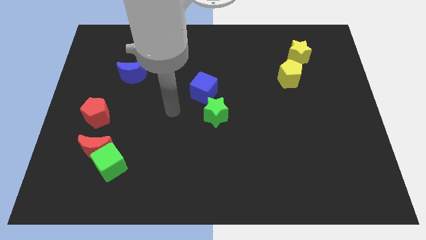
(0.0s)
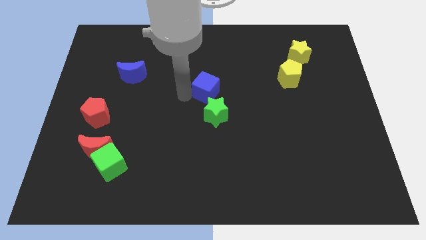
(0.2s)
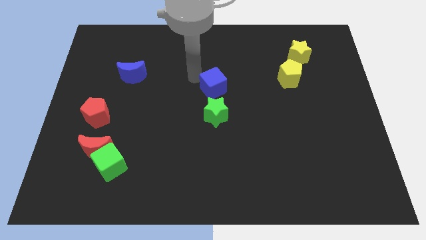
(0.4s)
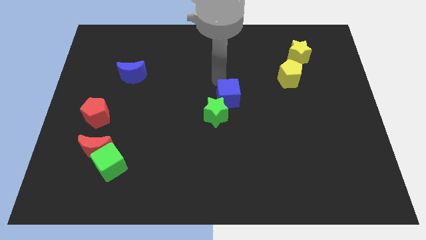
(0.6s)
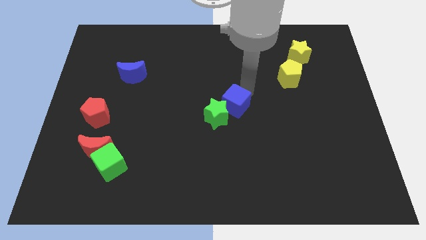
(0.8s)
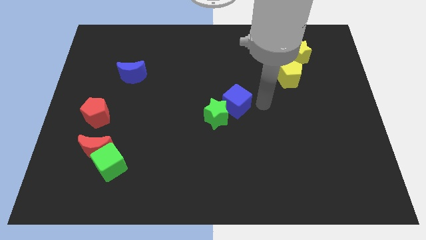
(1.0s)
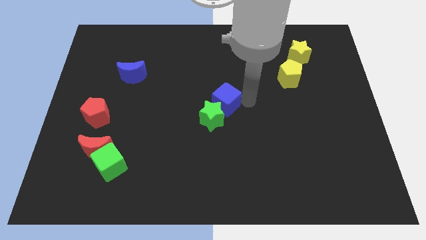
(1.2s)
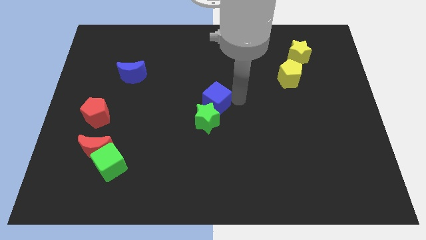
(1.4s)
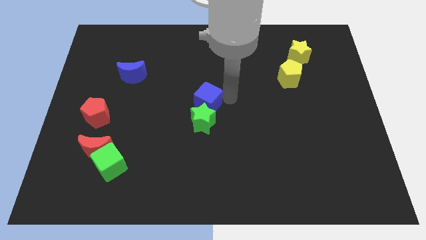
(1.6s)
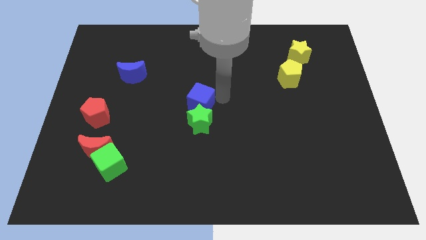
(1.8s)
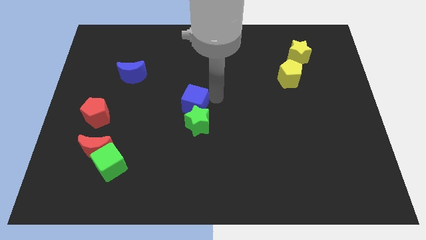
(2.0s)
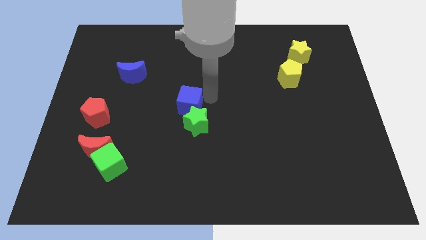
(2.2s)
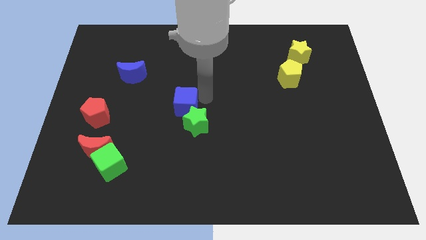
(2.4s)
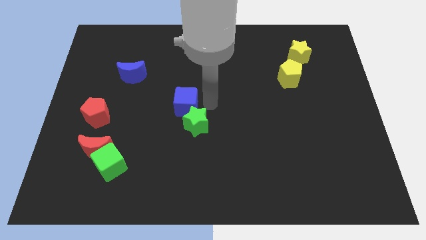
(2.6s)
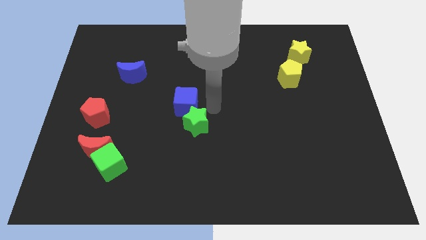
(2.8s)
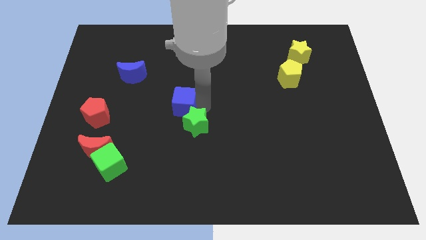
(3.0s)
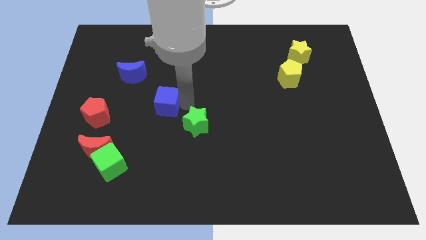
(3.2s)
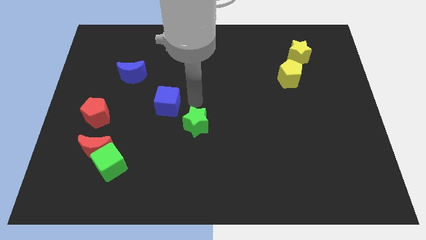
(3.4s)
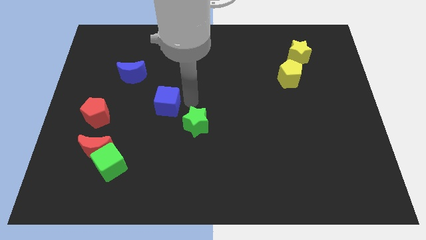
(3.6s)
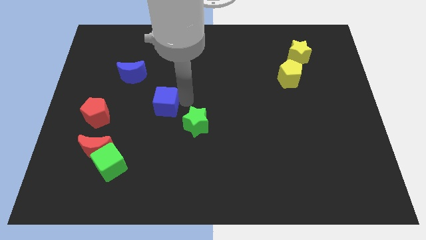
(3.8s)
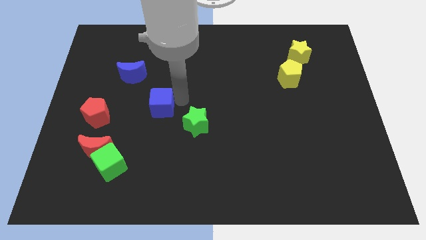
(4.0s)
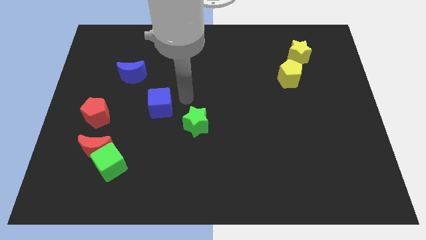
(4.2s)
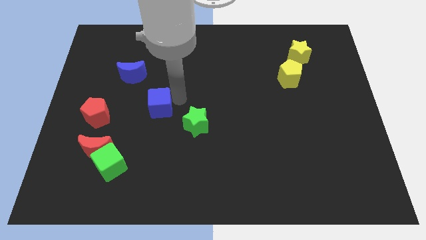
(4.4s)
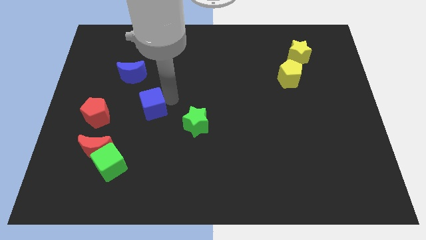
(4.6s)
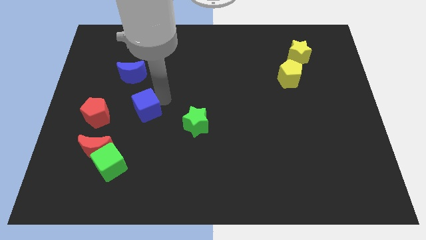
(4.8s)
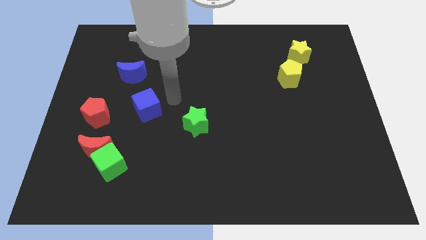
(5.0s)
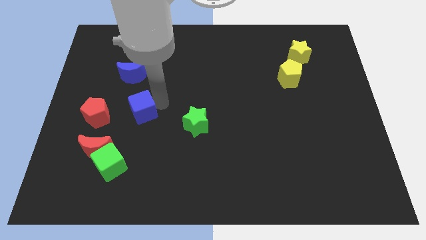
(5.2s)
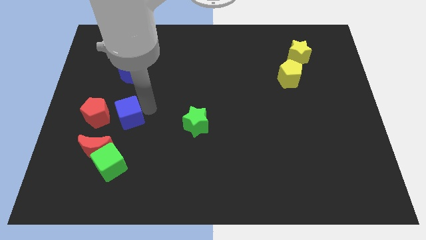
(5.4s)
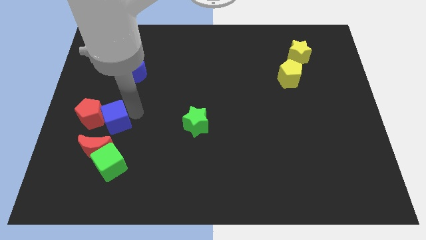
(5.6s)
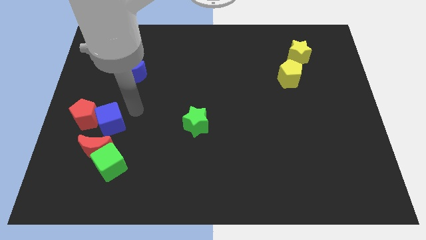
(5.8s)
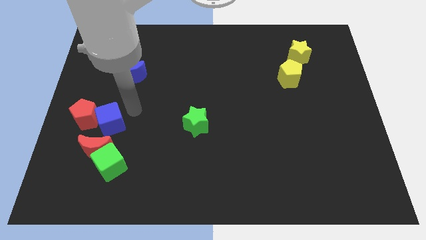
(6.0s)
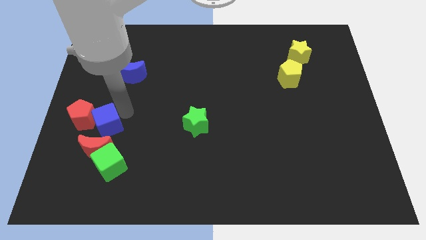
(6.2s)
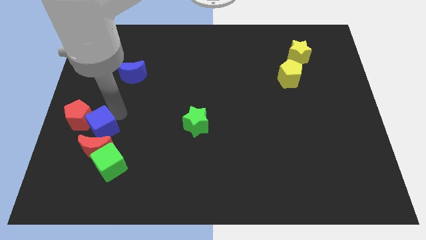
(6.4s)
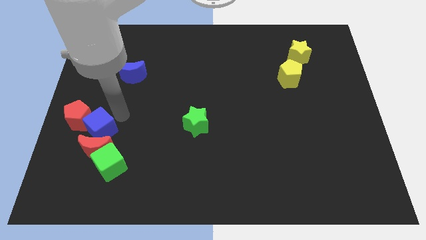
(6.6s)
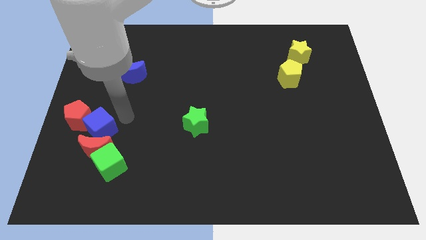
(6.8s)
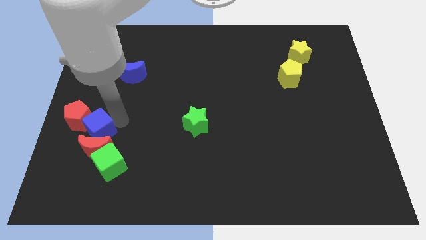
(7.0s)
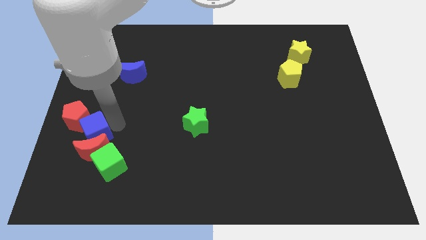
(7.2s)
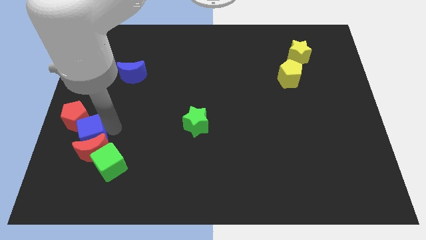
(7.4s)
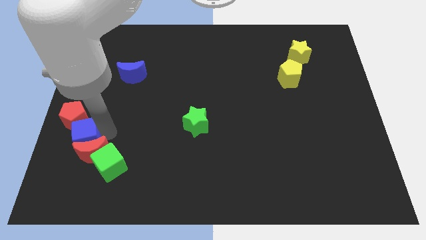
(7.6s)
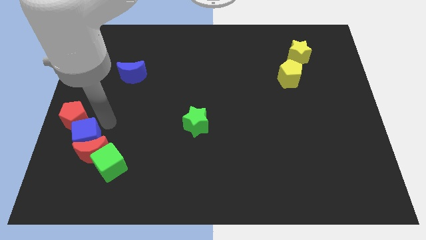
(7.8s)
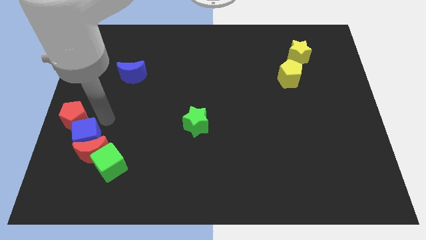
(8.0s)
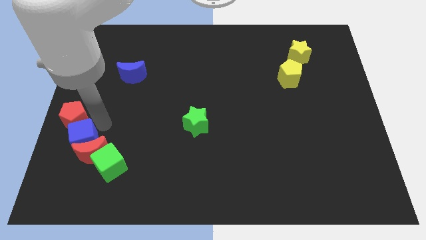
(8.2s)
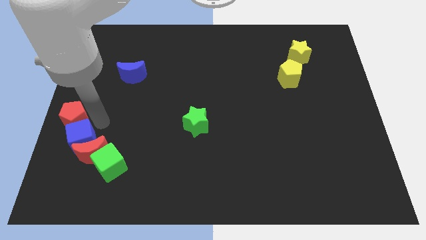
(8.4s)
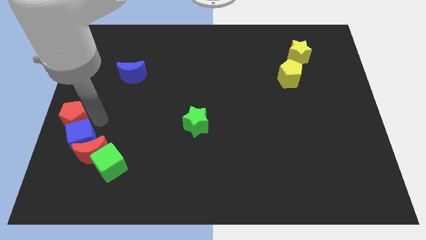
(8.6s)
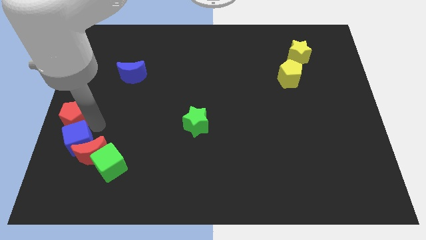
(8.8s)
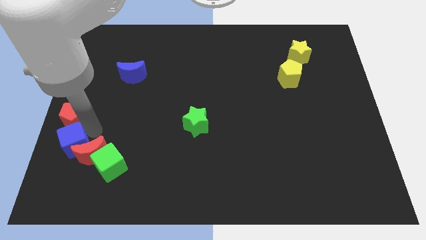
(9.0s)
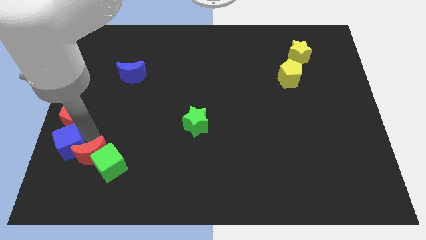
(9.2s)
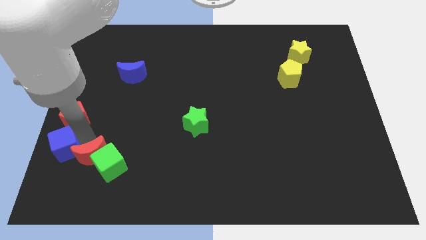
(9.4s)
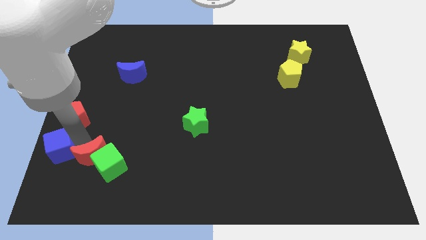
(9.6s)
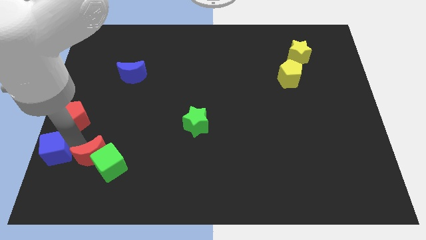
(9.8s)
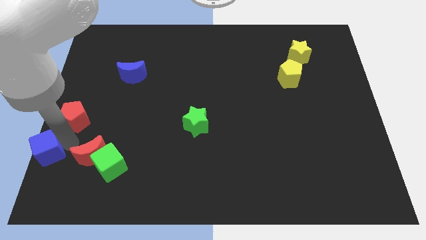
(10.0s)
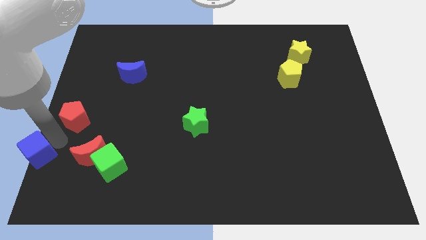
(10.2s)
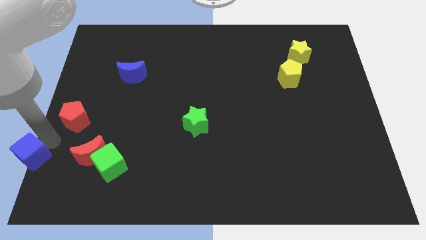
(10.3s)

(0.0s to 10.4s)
move the blue cube to the lower left corner

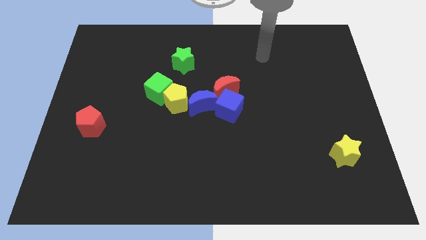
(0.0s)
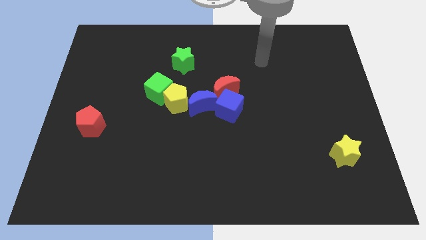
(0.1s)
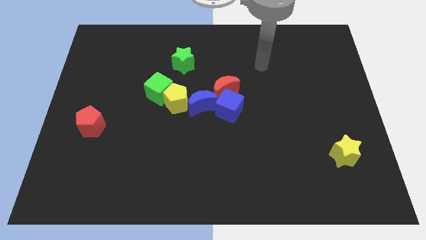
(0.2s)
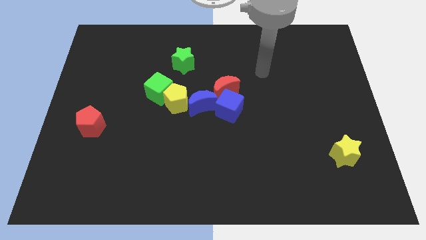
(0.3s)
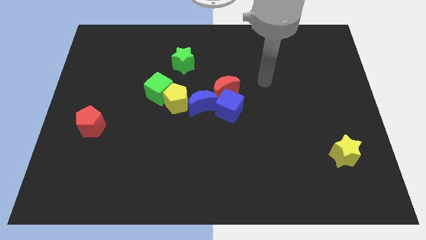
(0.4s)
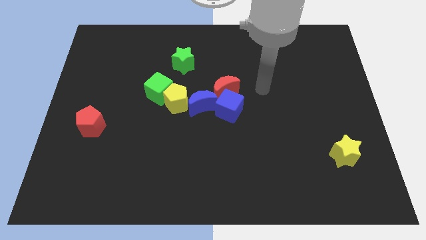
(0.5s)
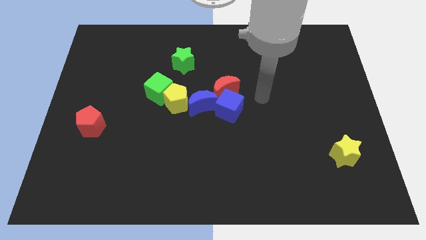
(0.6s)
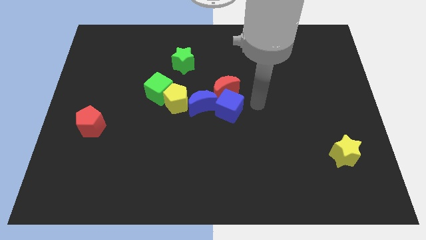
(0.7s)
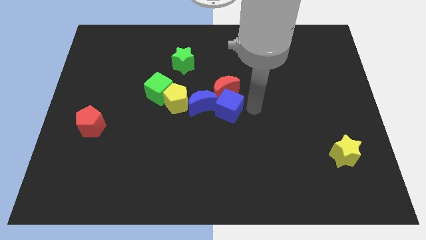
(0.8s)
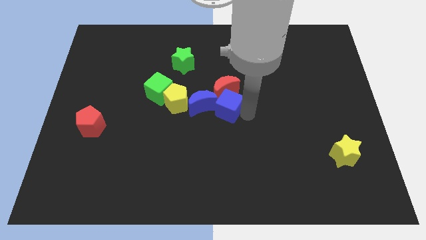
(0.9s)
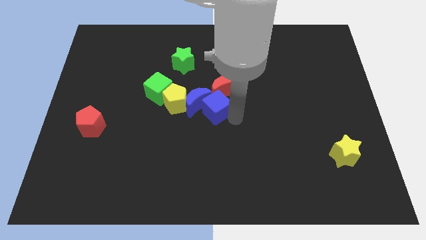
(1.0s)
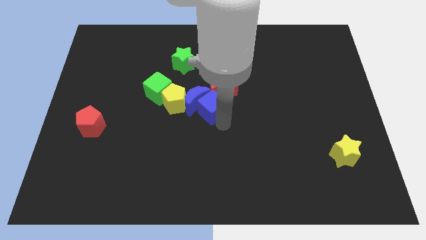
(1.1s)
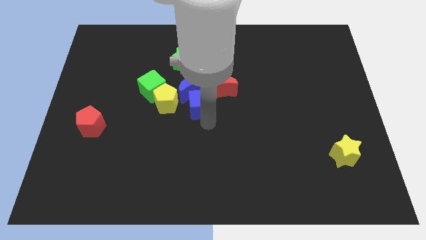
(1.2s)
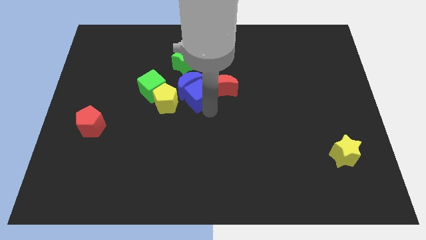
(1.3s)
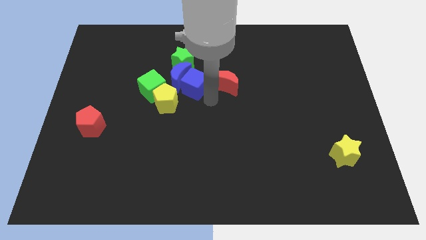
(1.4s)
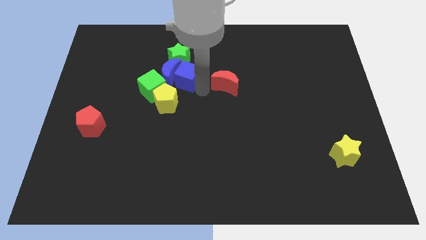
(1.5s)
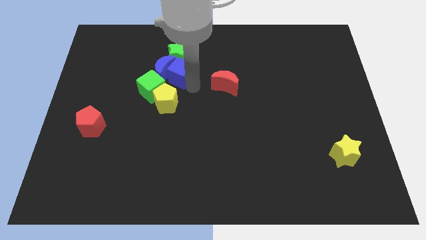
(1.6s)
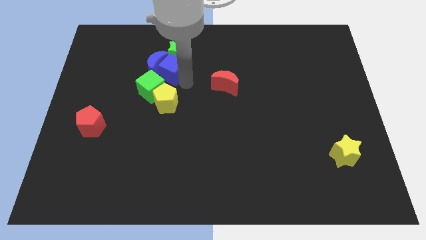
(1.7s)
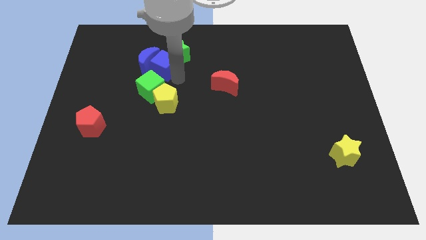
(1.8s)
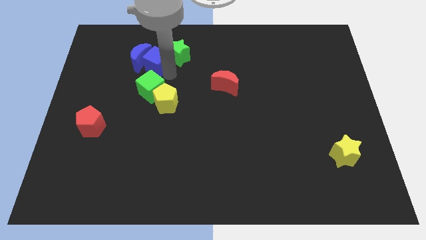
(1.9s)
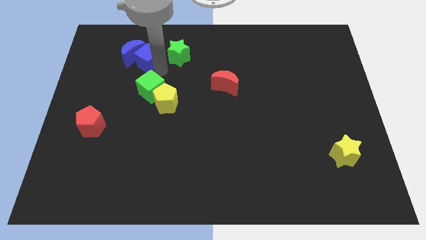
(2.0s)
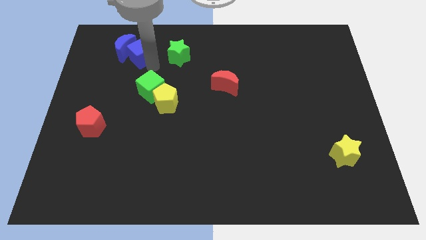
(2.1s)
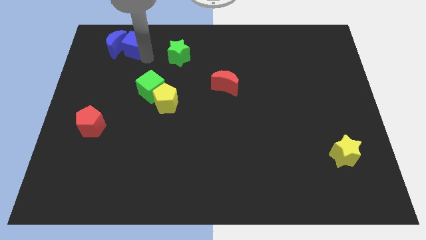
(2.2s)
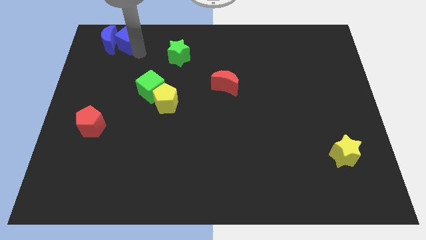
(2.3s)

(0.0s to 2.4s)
push the blue moon to the upper left corner
